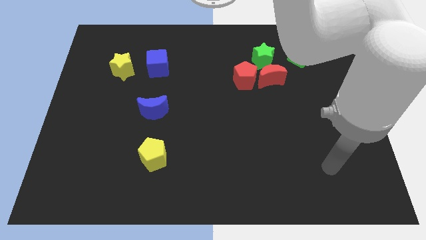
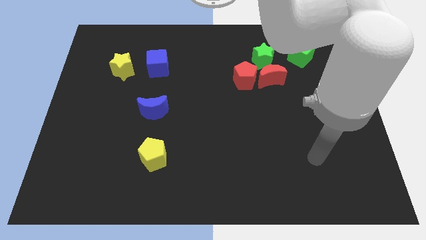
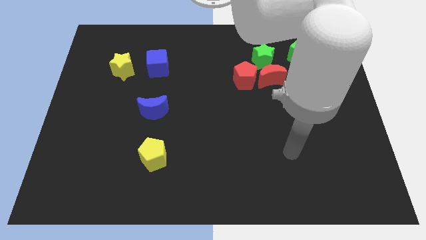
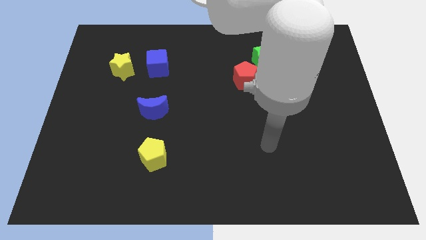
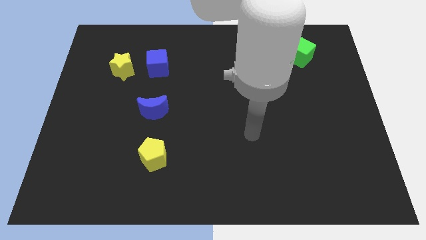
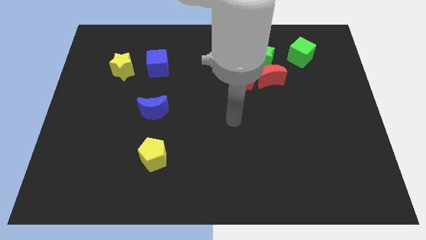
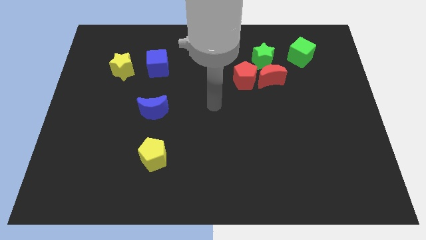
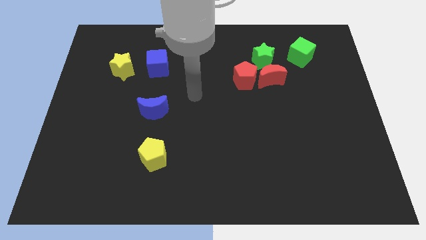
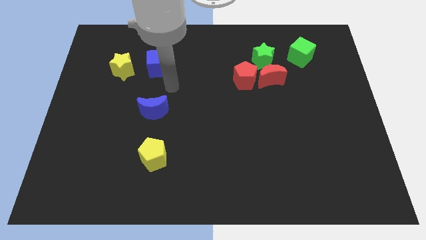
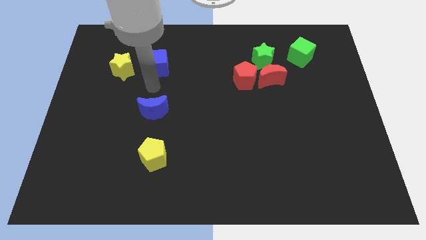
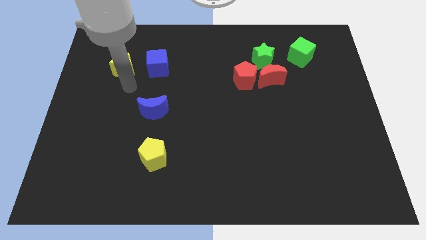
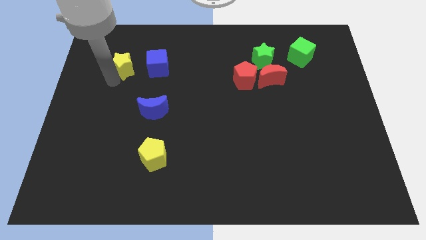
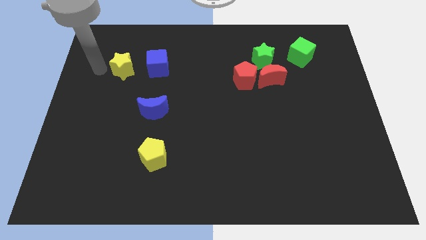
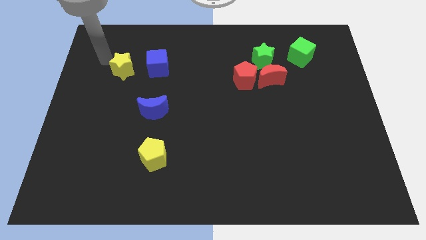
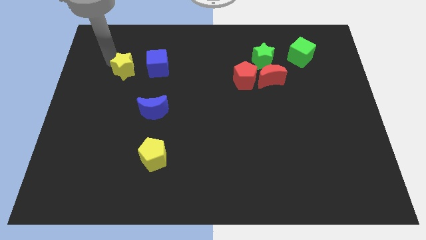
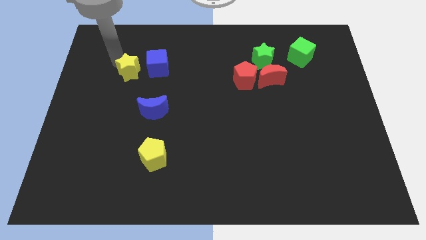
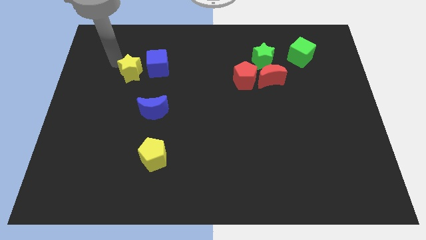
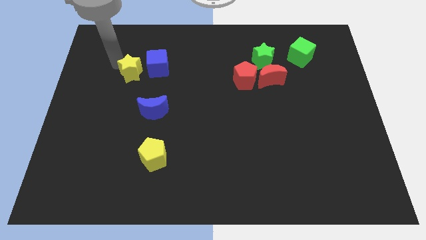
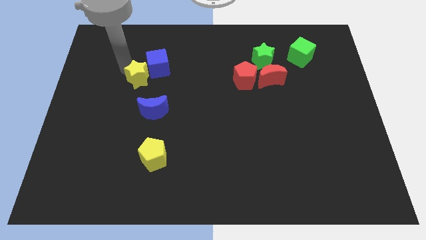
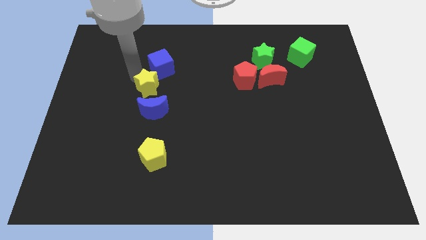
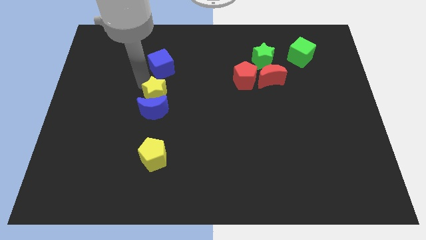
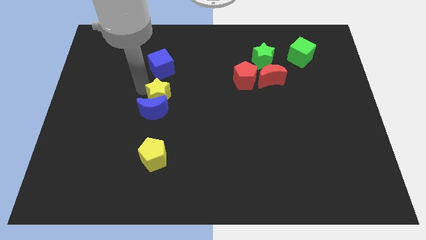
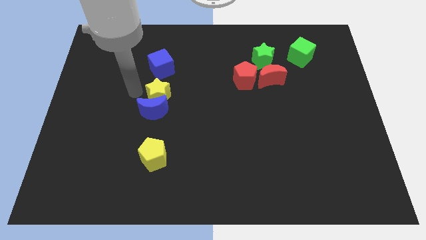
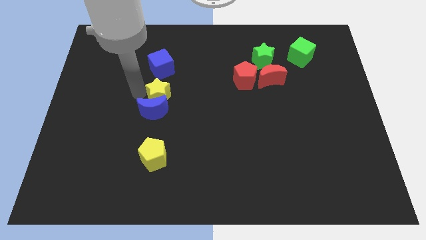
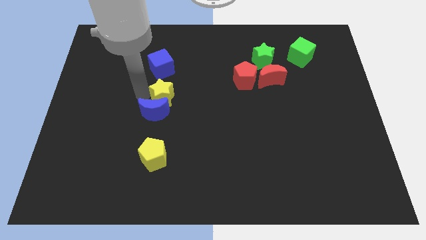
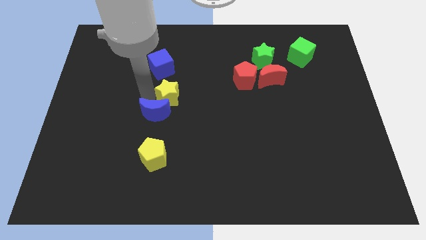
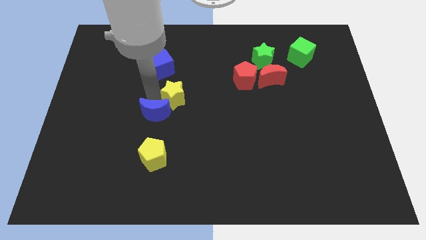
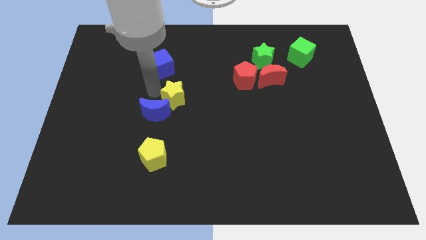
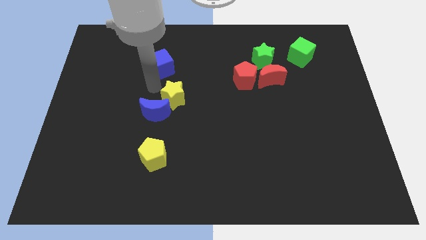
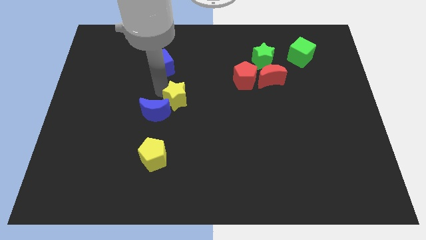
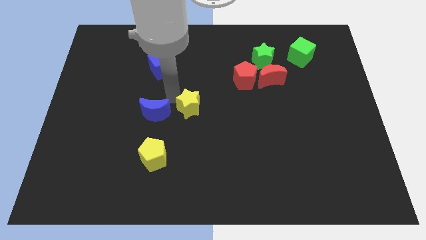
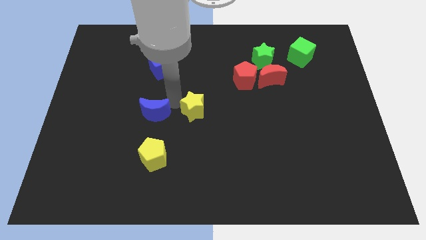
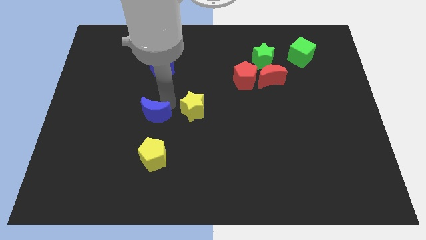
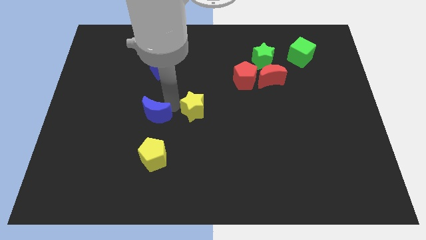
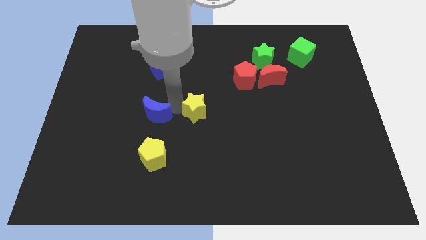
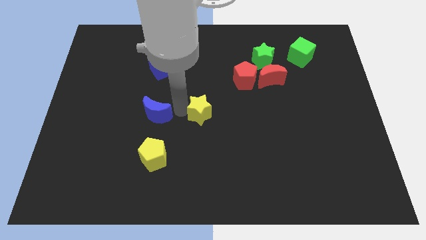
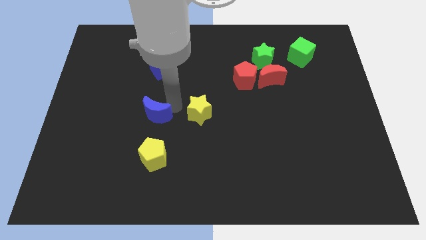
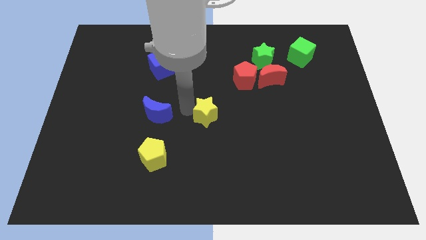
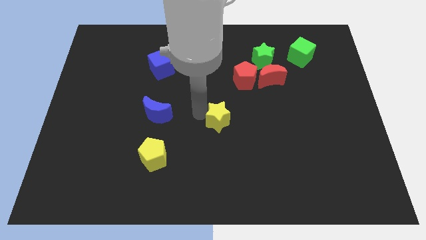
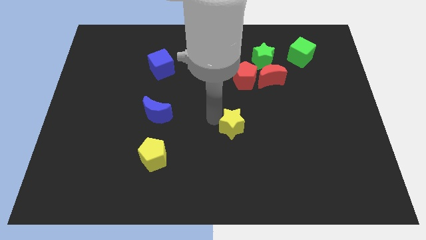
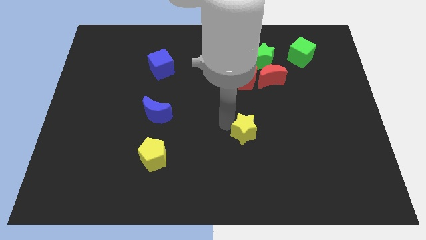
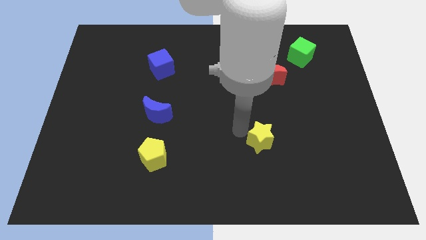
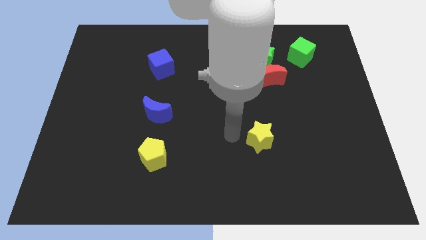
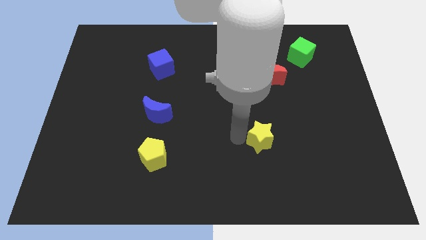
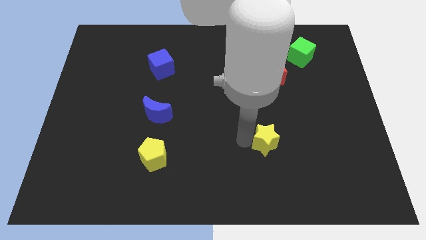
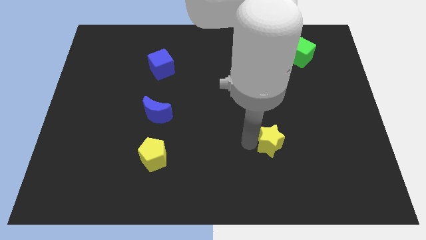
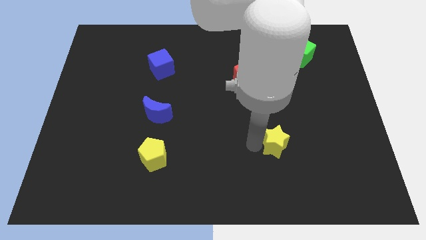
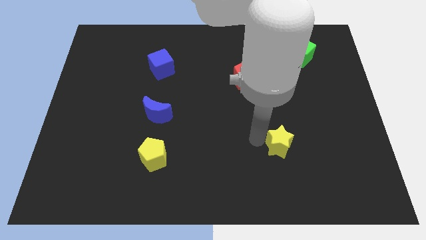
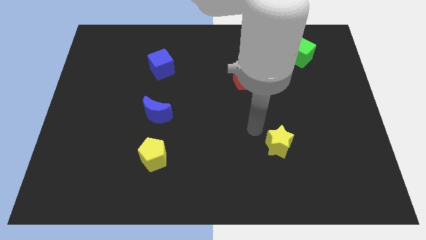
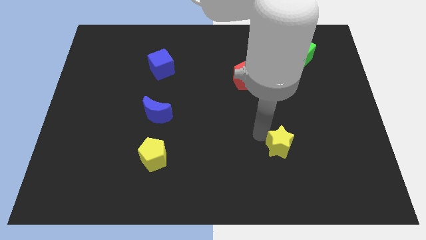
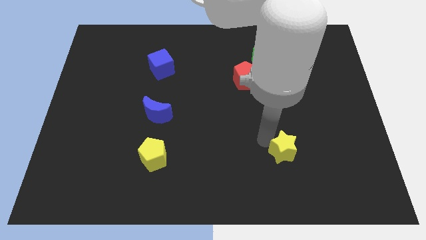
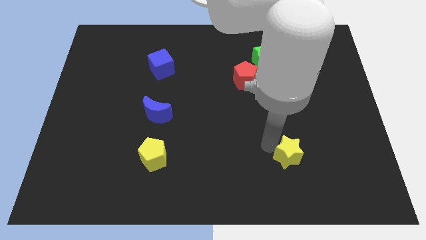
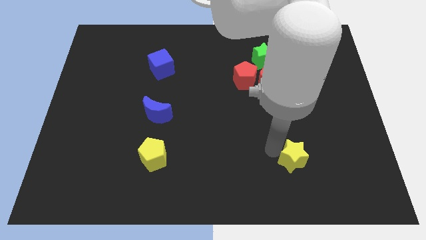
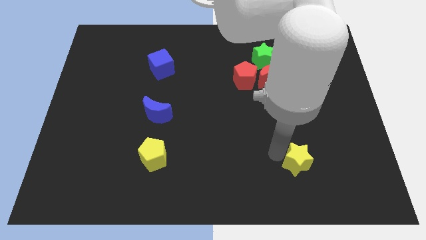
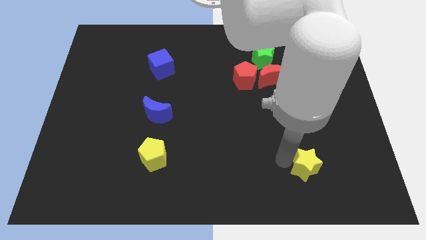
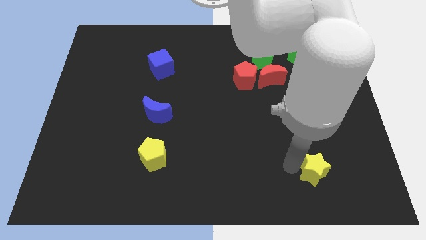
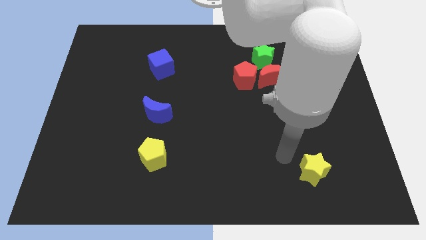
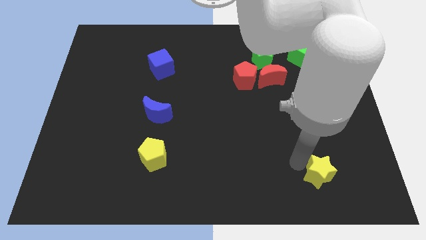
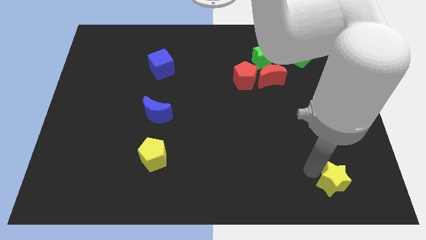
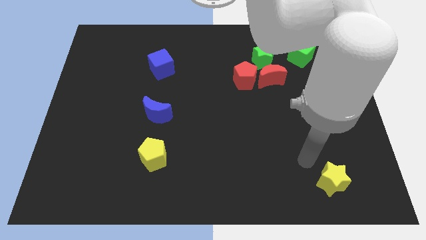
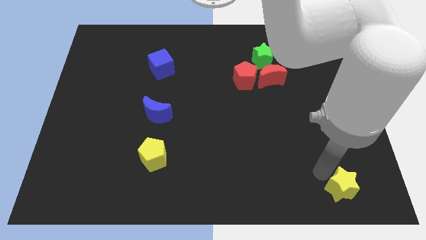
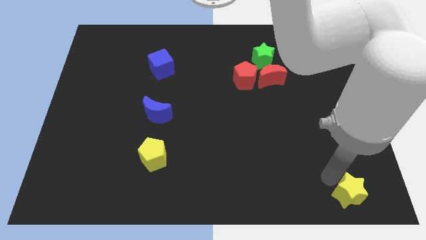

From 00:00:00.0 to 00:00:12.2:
push the yellow star to the lower right corner

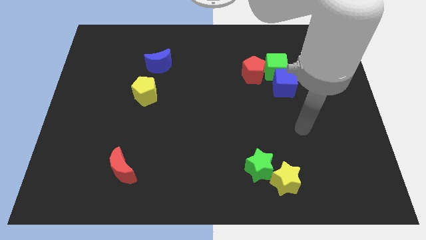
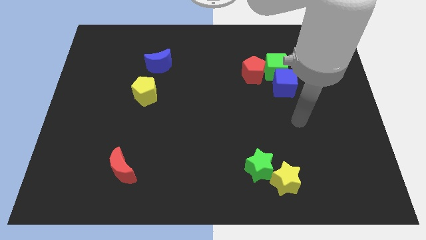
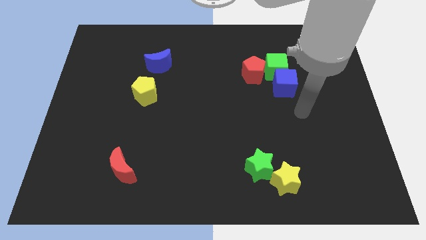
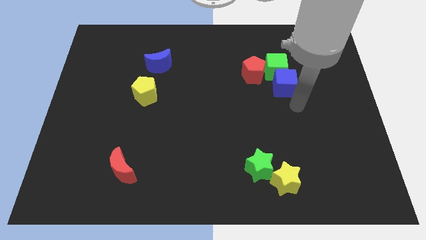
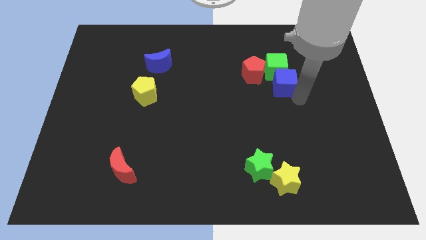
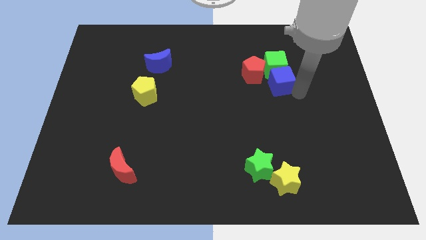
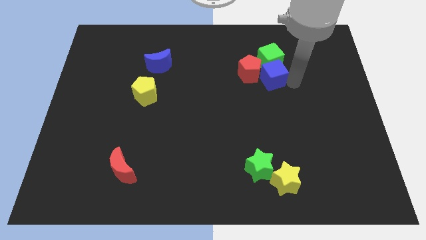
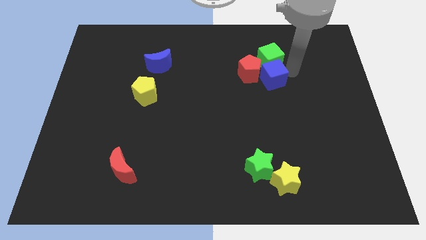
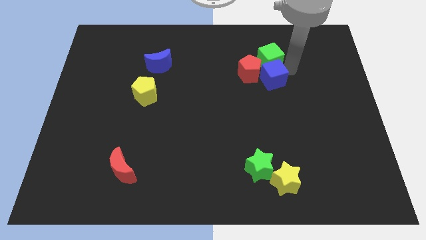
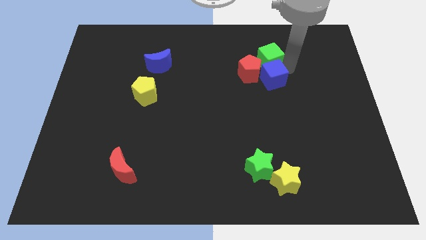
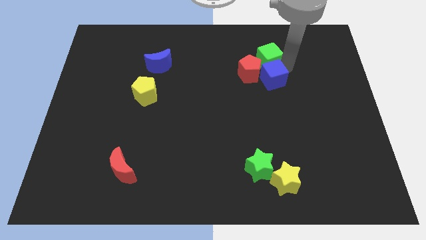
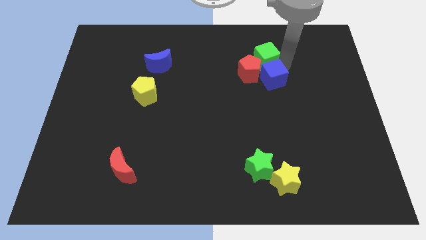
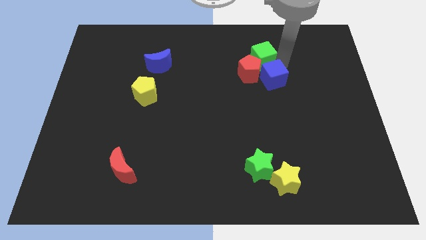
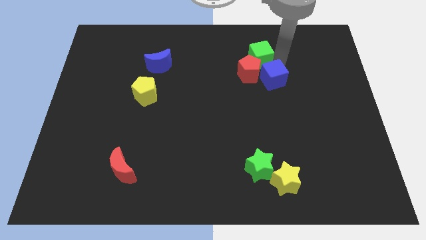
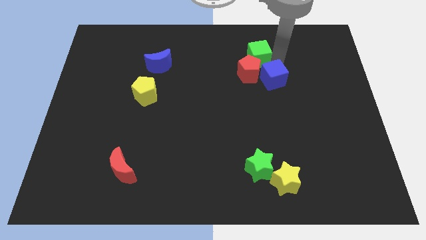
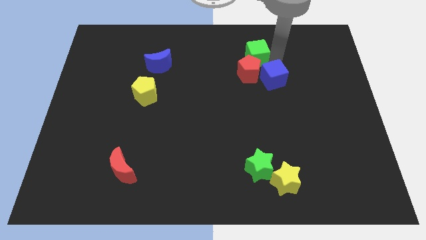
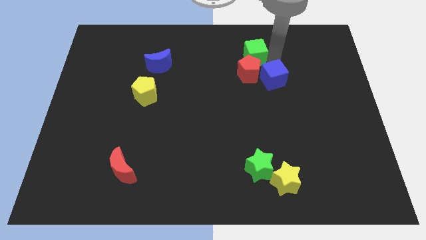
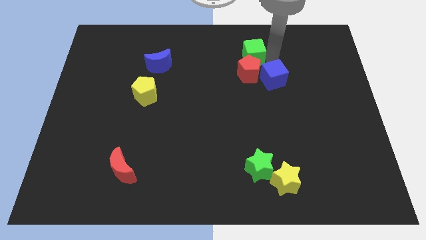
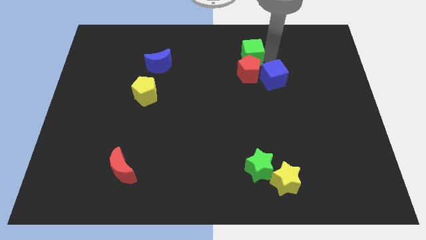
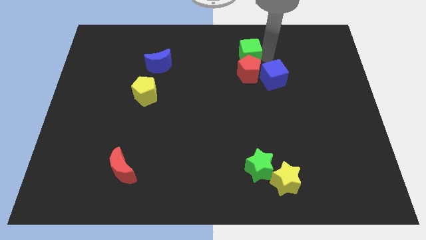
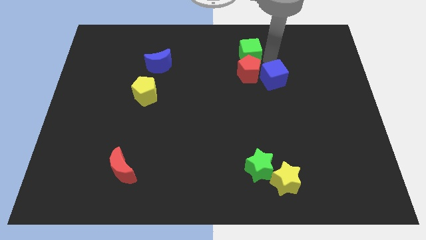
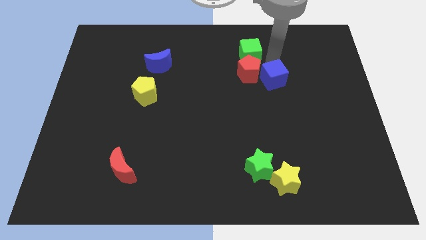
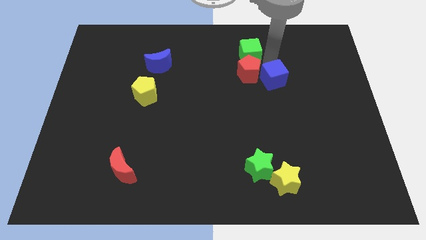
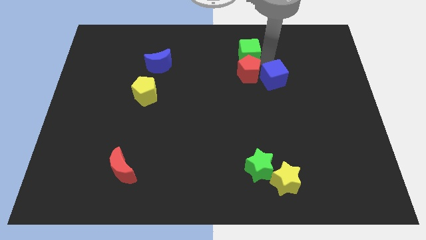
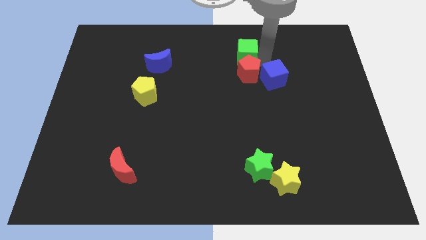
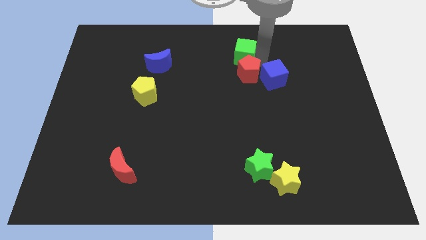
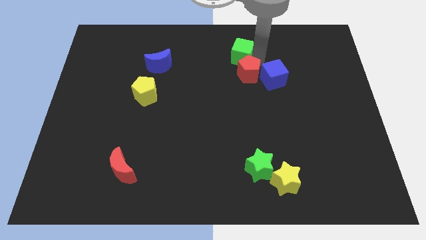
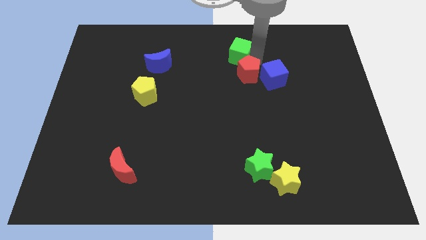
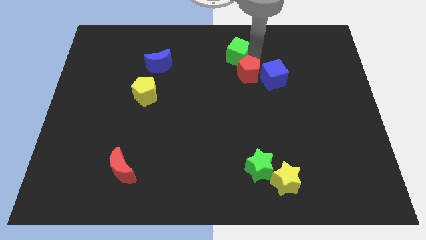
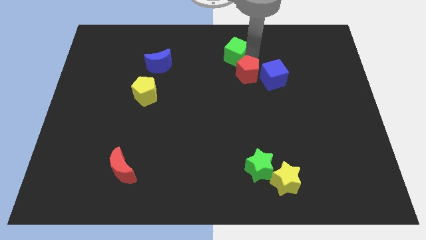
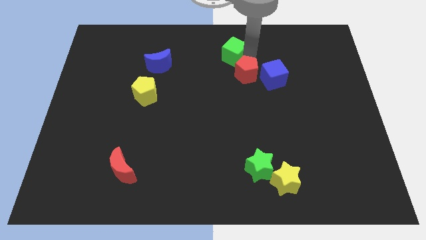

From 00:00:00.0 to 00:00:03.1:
move the green cube to the towards your base
